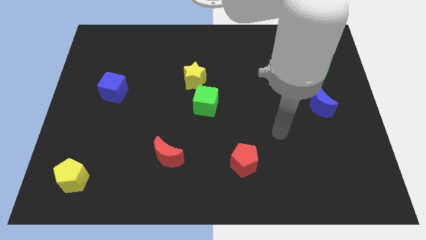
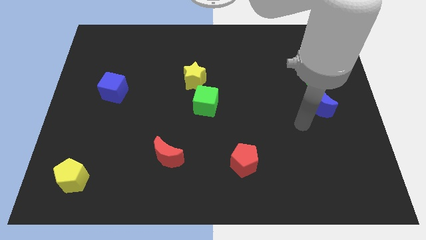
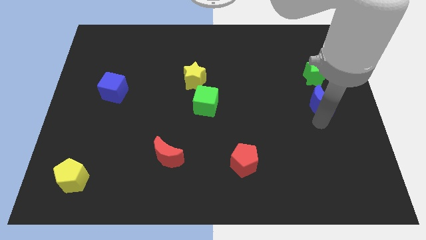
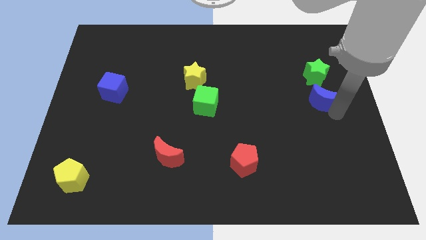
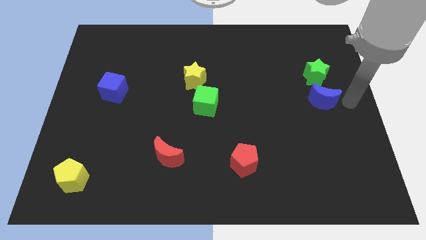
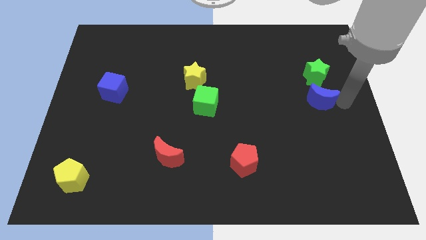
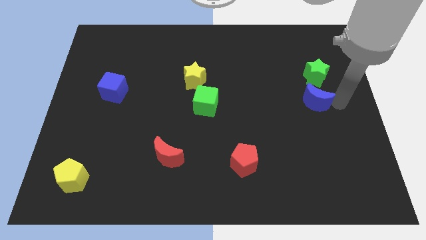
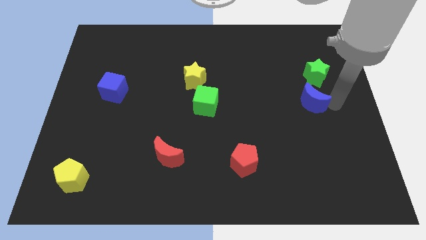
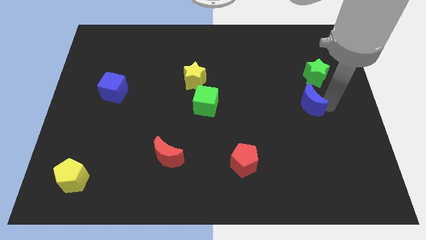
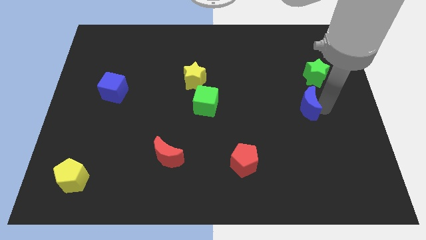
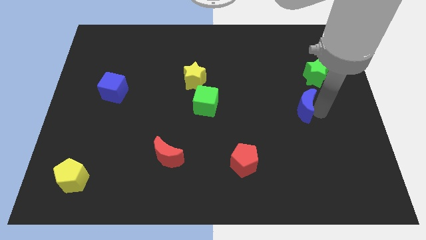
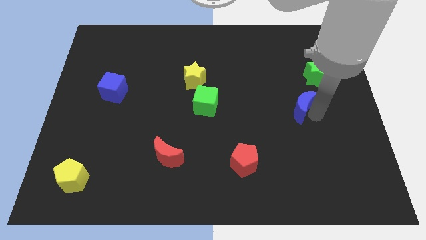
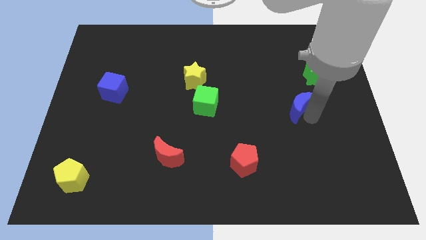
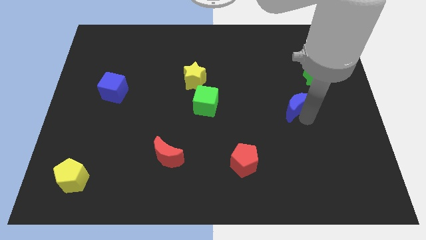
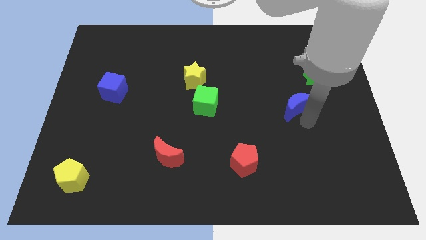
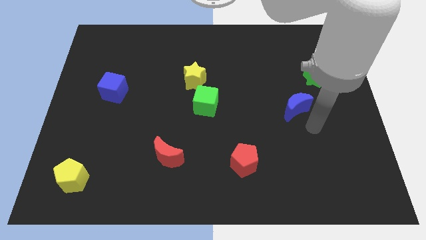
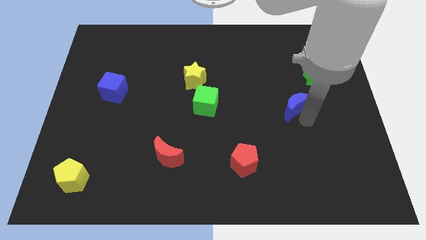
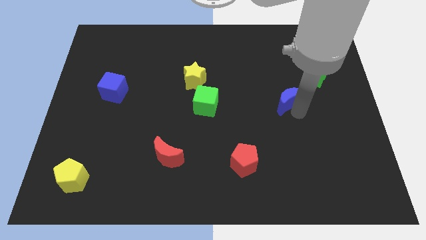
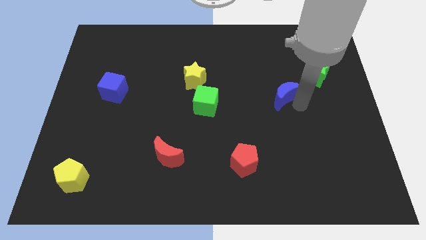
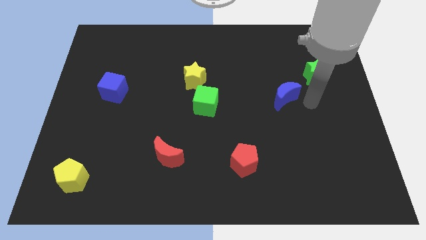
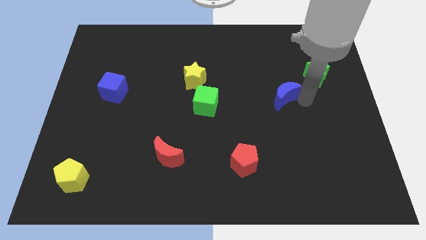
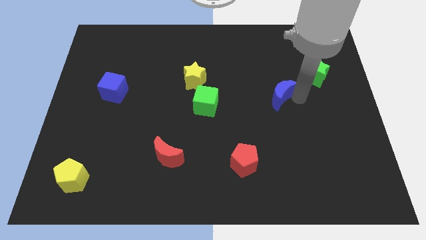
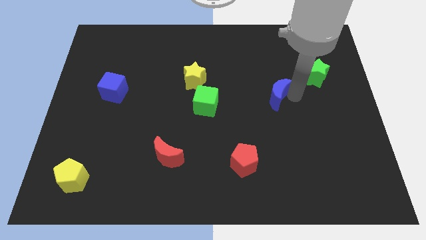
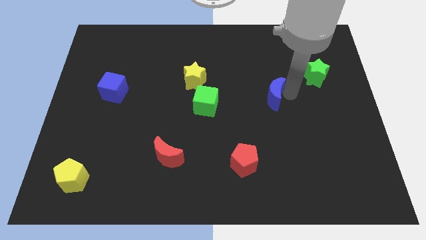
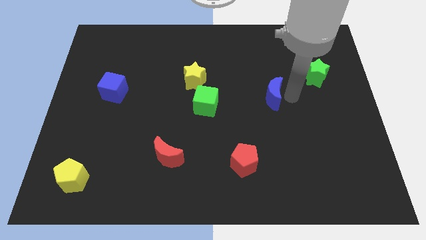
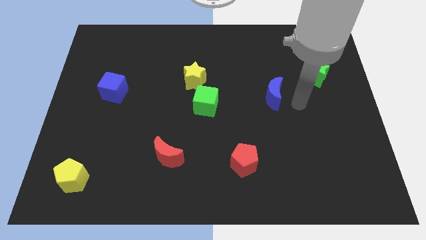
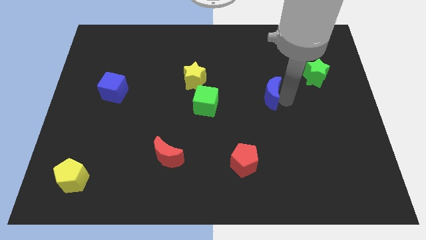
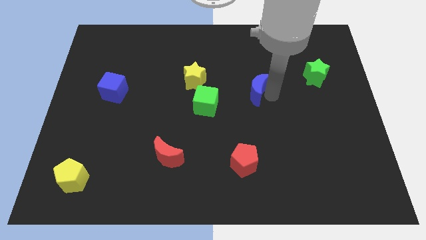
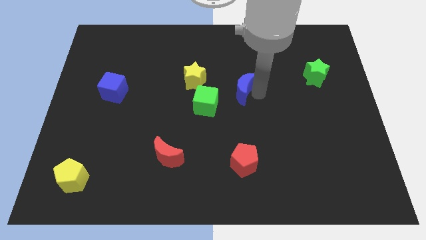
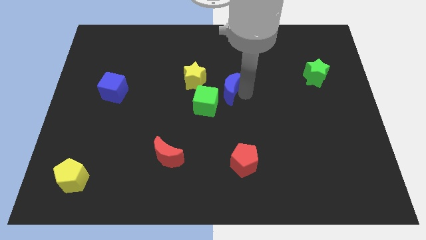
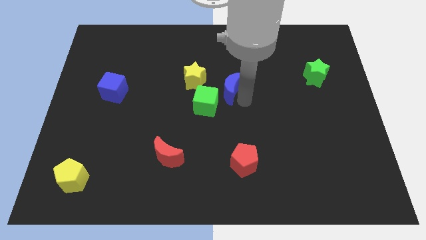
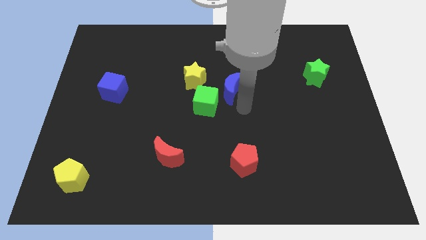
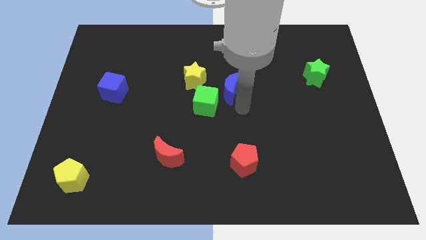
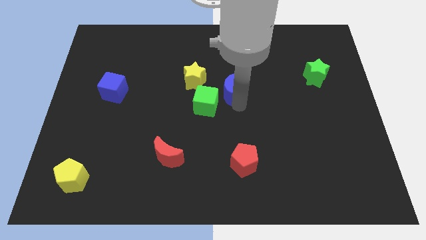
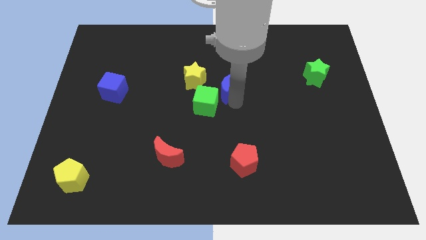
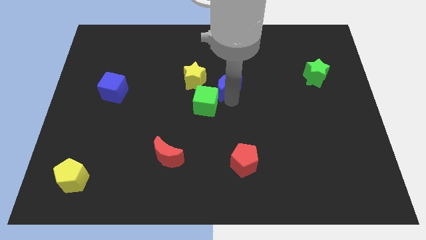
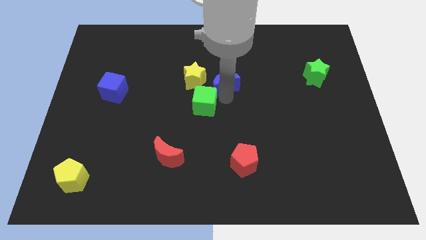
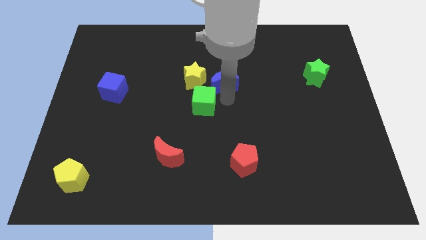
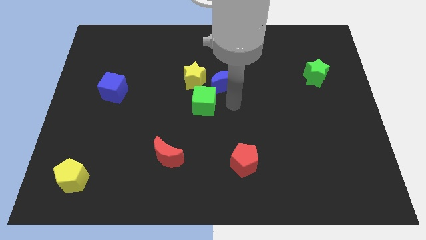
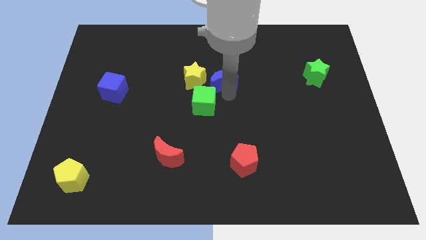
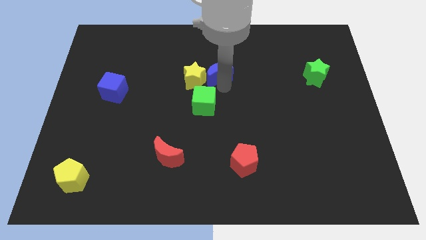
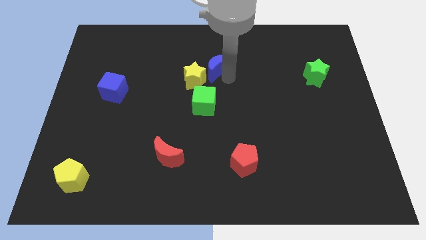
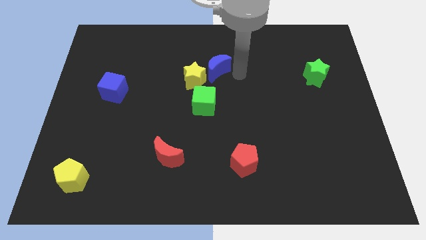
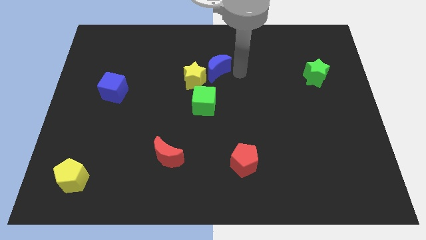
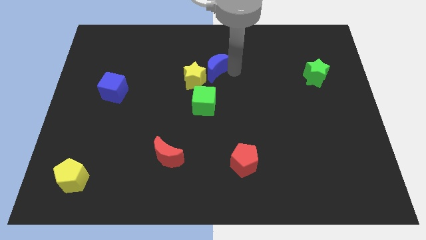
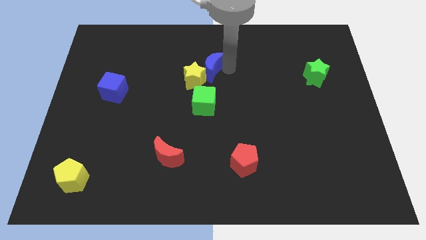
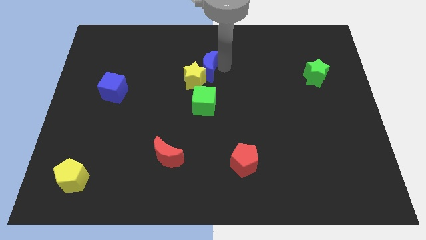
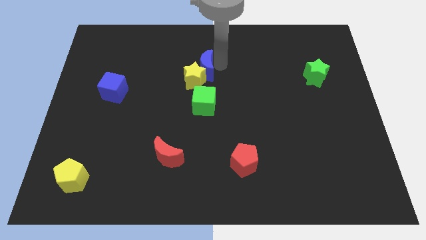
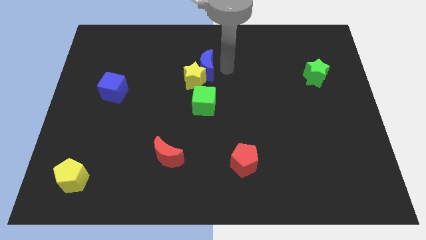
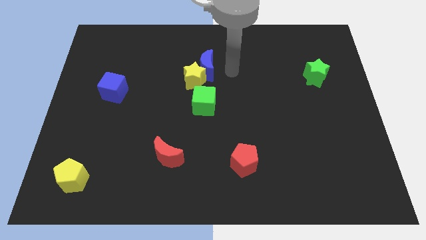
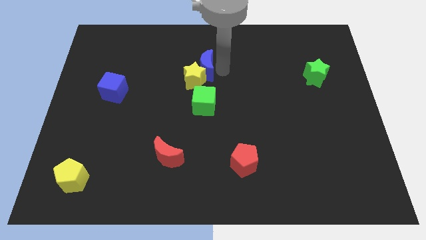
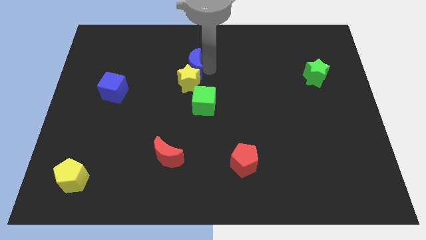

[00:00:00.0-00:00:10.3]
slide the blue moon to the top left of the yellow star

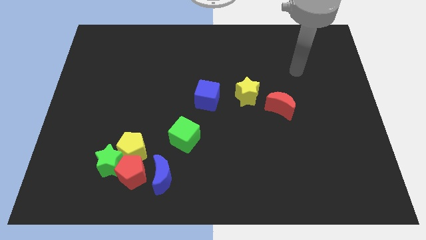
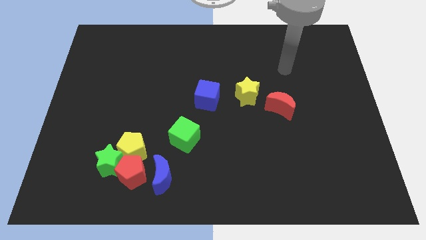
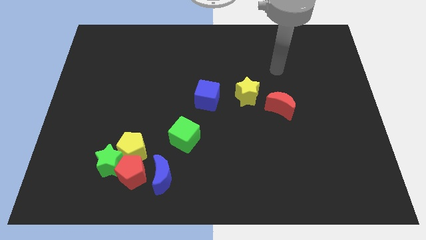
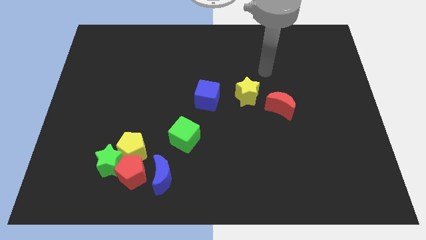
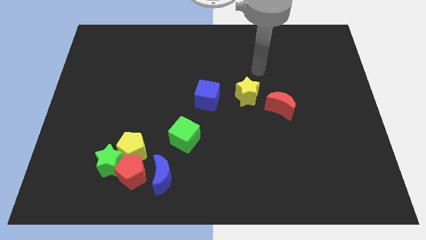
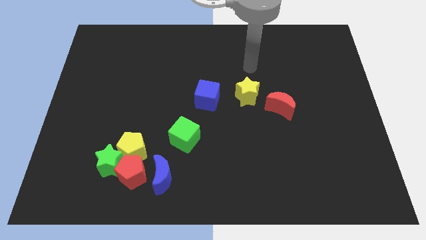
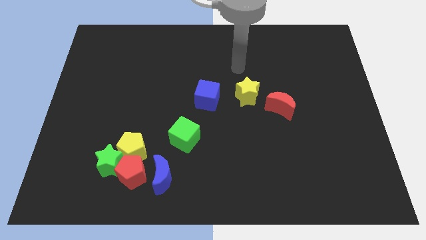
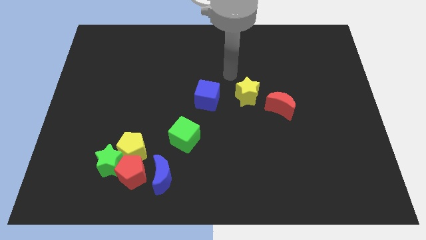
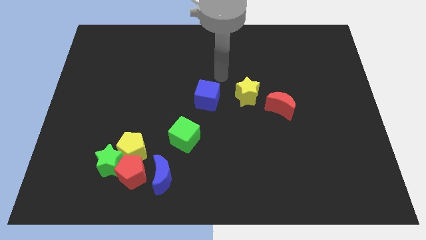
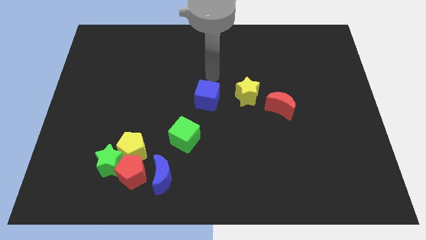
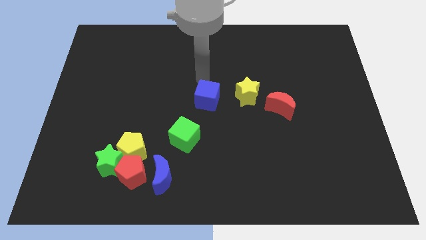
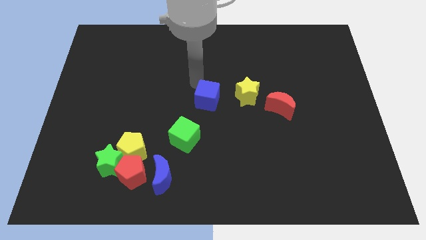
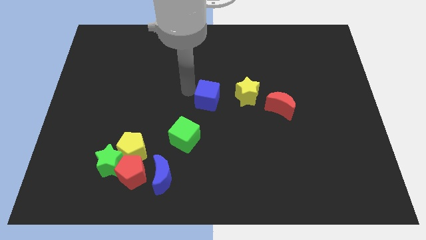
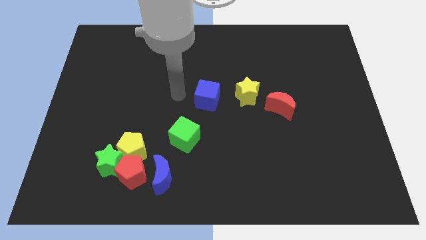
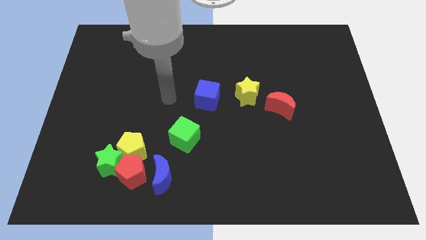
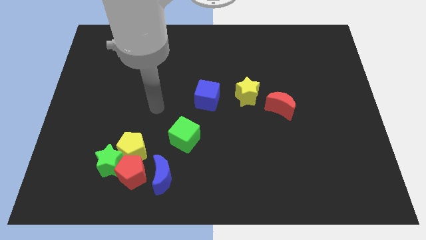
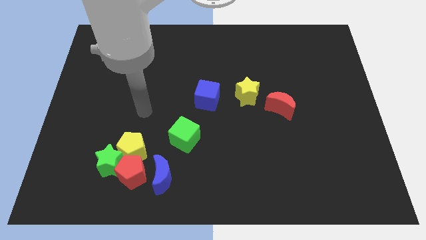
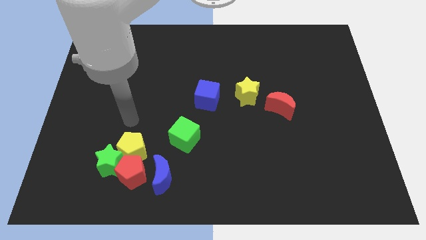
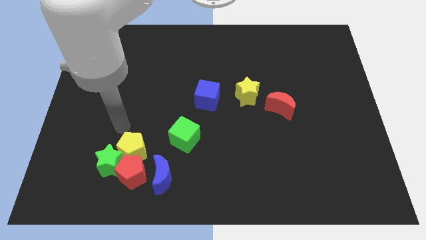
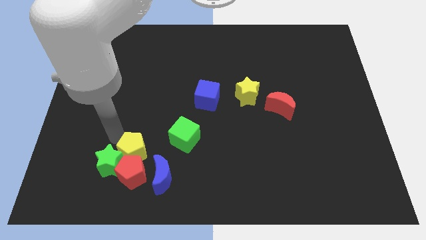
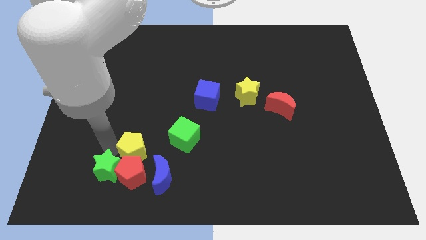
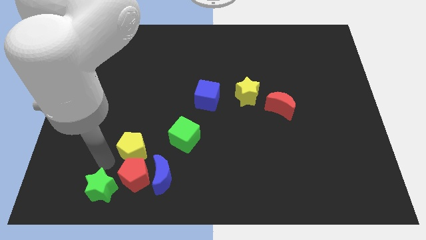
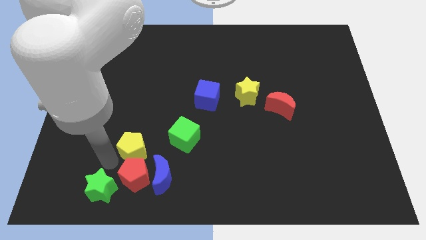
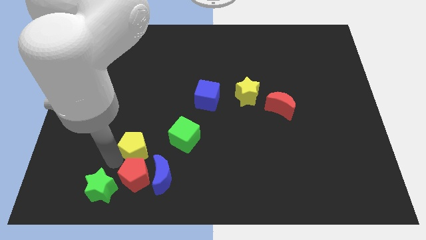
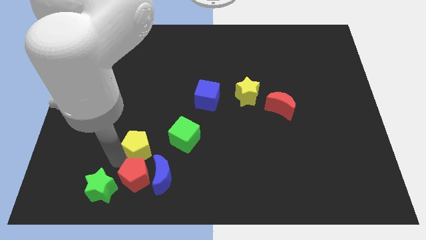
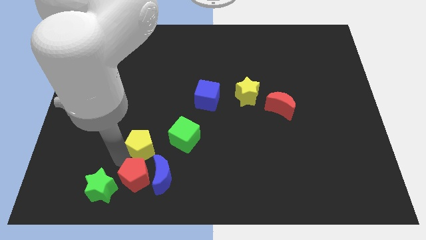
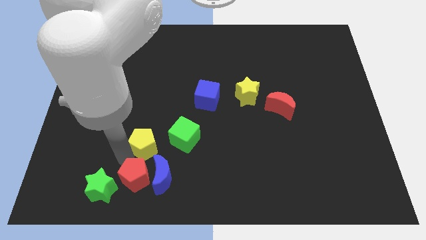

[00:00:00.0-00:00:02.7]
put the yellow pentagon to the top side of the blue moon
